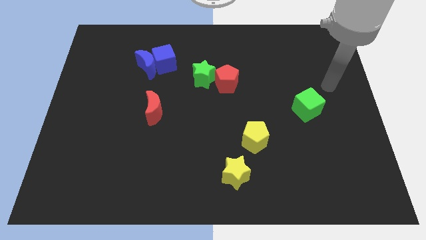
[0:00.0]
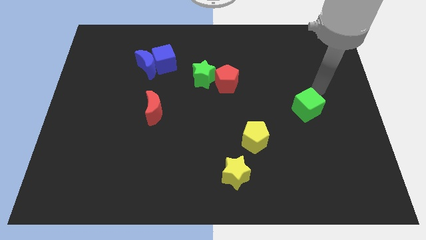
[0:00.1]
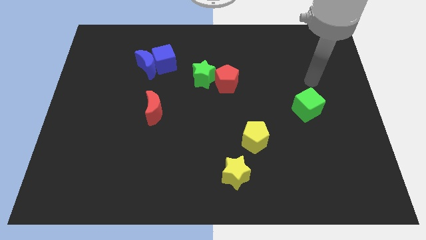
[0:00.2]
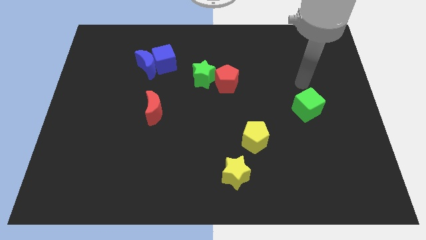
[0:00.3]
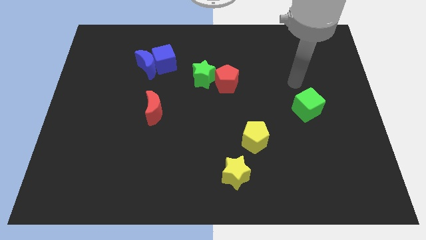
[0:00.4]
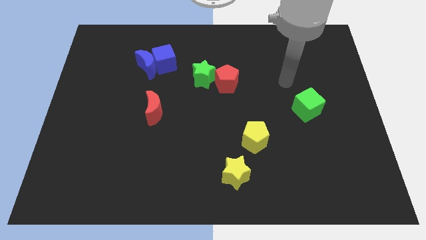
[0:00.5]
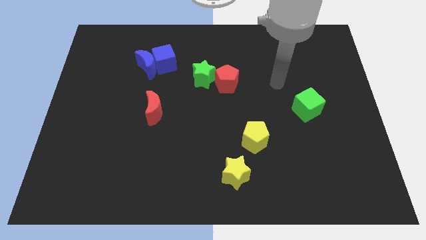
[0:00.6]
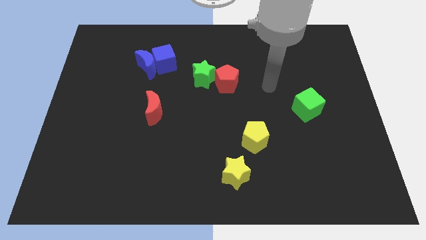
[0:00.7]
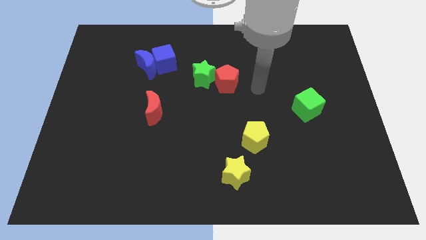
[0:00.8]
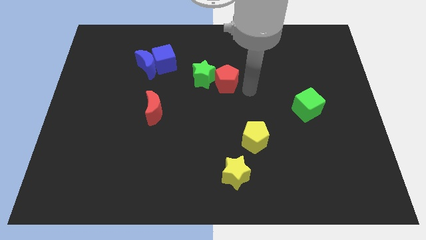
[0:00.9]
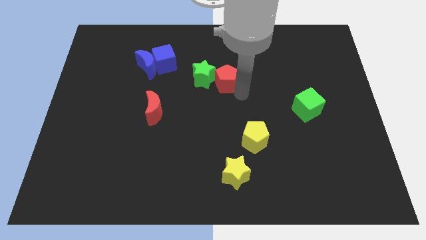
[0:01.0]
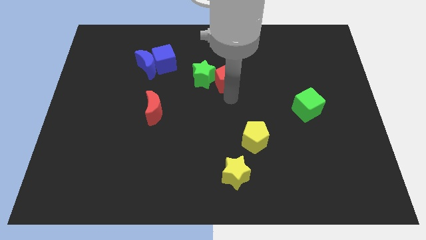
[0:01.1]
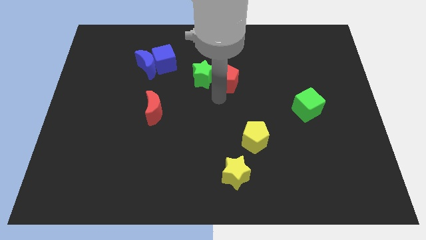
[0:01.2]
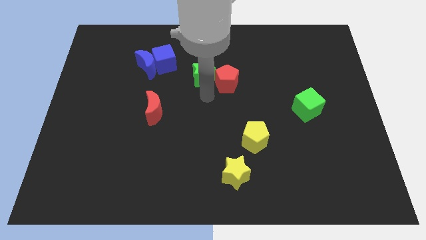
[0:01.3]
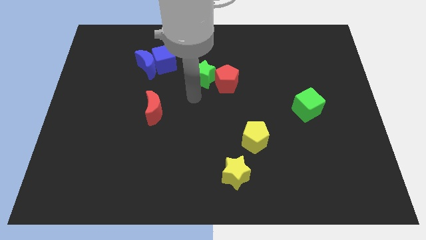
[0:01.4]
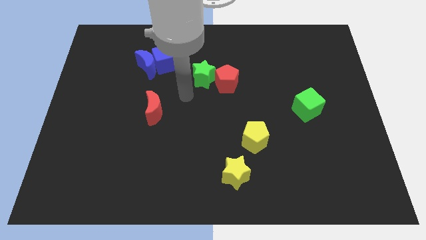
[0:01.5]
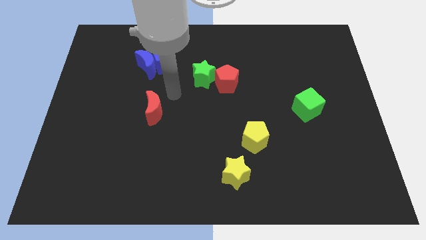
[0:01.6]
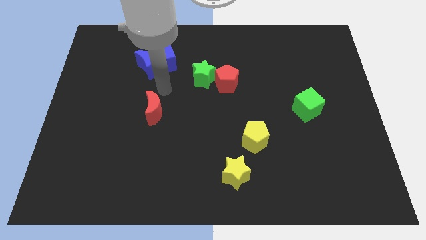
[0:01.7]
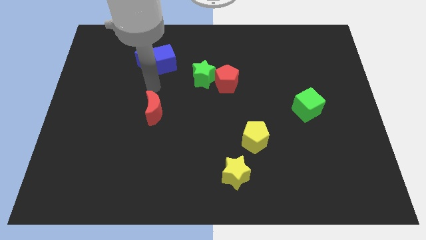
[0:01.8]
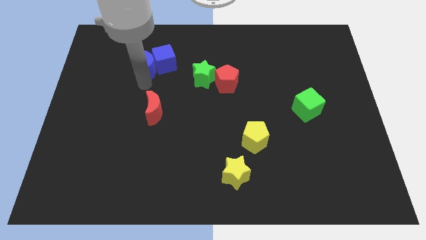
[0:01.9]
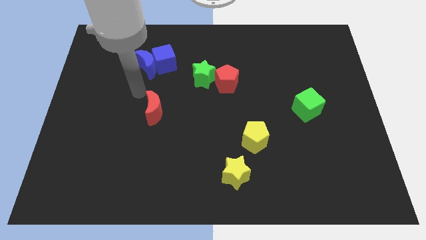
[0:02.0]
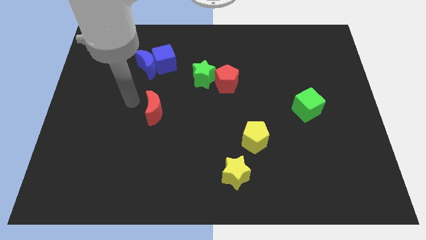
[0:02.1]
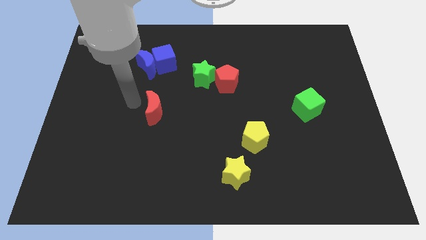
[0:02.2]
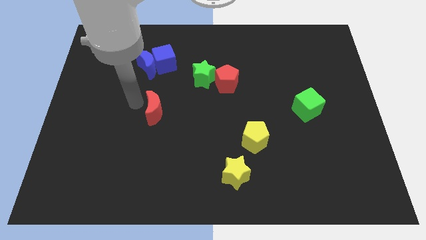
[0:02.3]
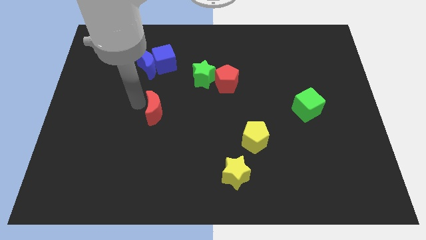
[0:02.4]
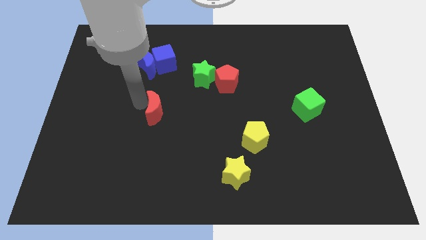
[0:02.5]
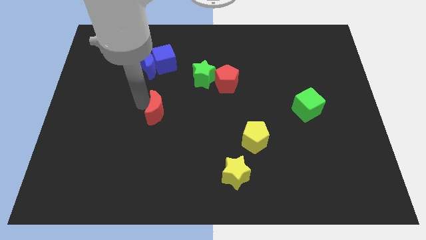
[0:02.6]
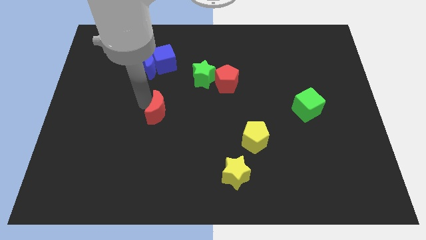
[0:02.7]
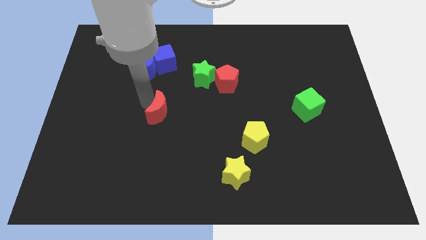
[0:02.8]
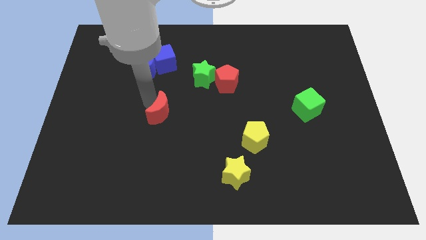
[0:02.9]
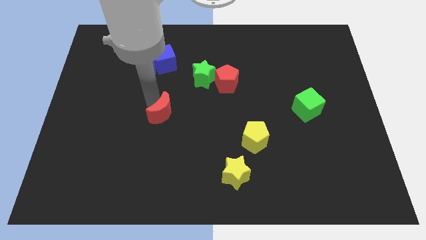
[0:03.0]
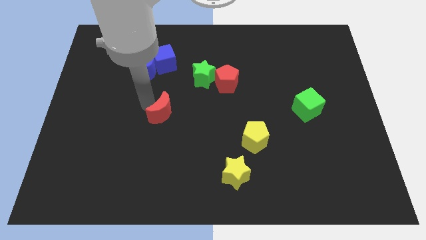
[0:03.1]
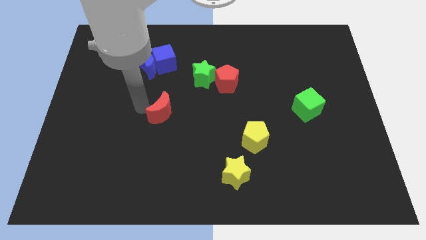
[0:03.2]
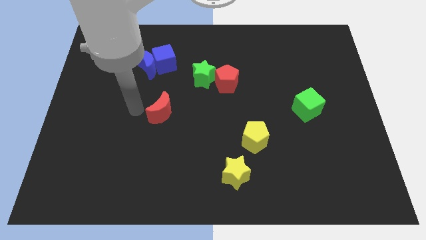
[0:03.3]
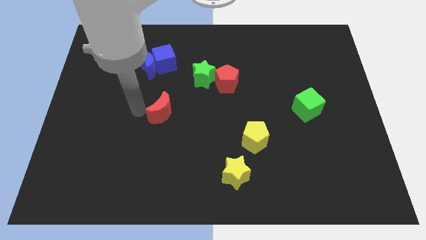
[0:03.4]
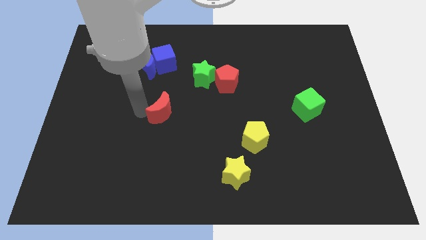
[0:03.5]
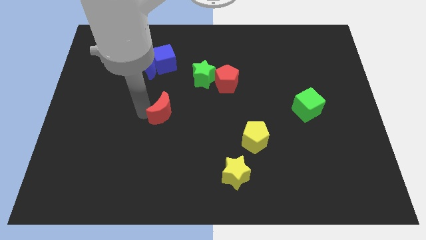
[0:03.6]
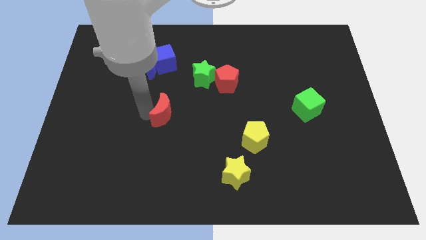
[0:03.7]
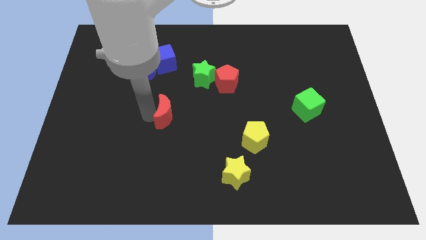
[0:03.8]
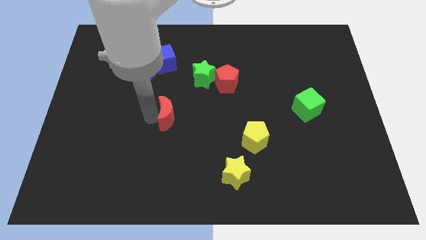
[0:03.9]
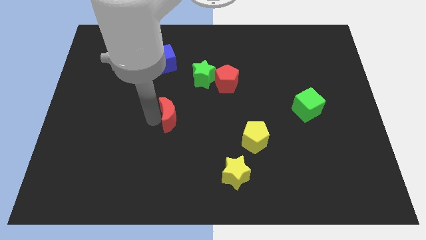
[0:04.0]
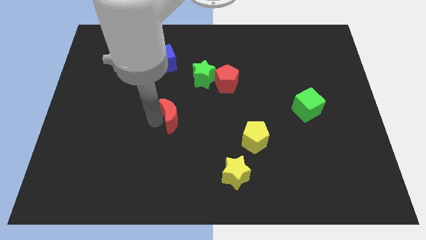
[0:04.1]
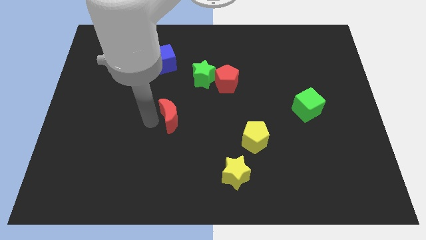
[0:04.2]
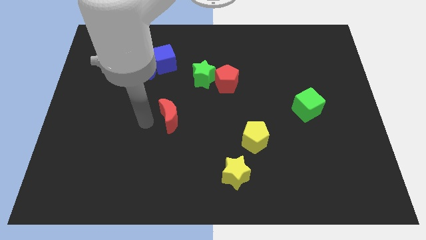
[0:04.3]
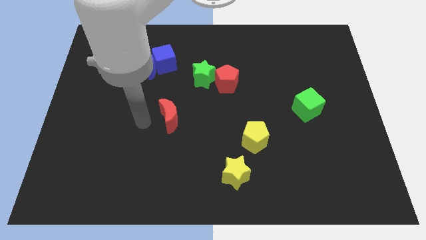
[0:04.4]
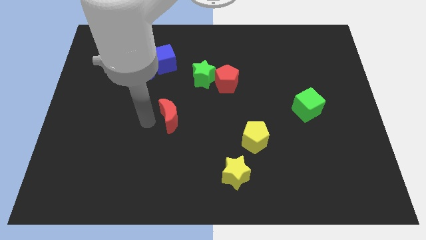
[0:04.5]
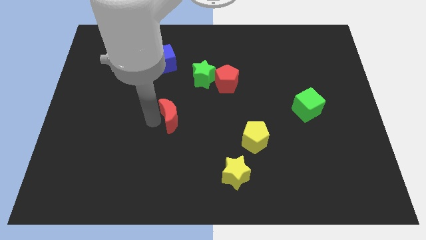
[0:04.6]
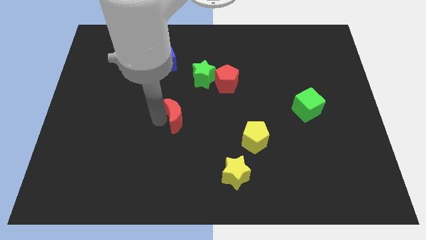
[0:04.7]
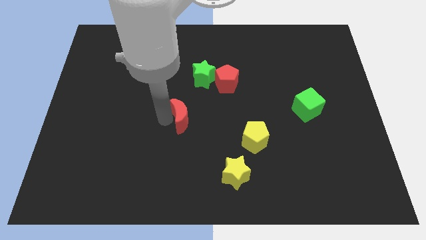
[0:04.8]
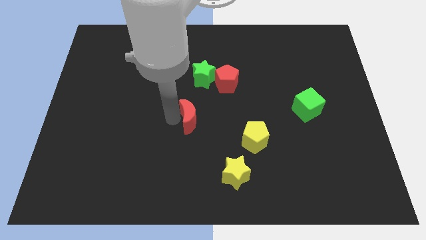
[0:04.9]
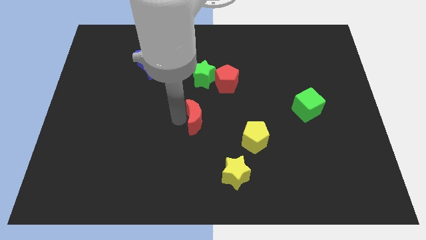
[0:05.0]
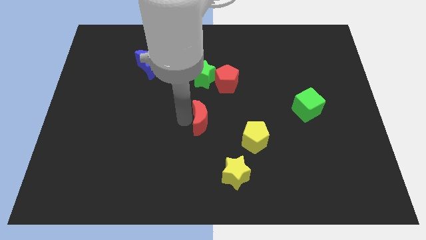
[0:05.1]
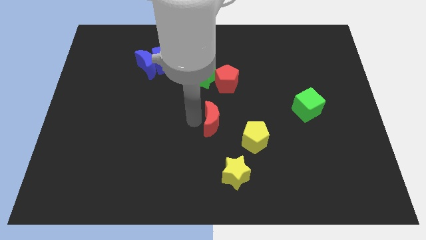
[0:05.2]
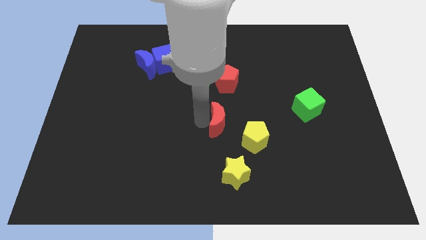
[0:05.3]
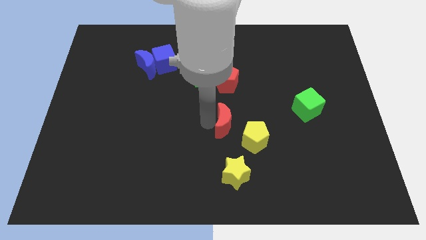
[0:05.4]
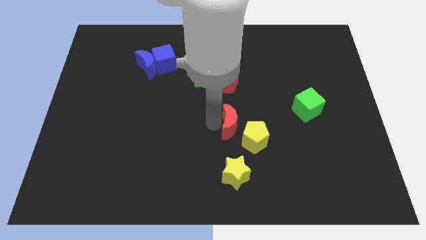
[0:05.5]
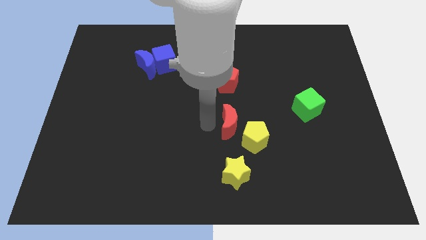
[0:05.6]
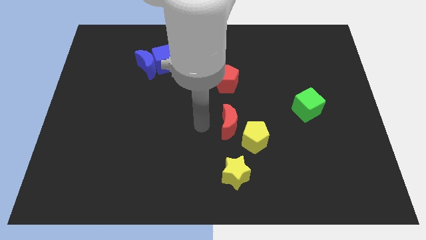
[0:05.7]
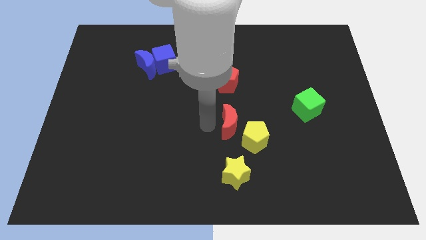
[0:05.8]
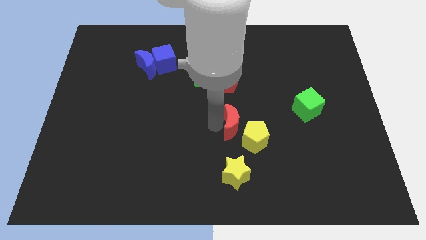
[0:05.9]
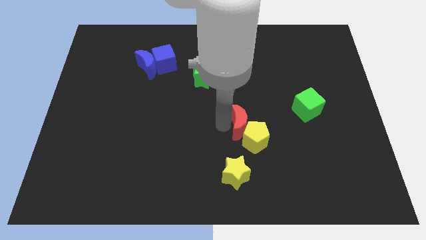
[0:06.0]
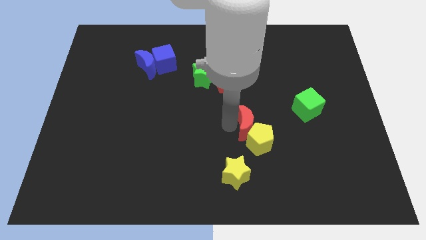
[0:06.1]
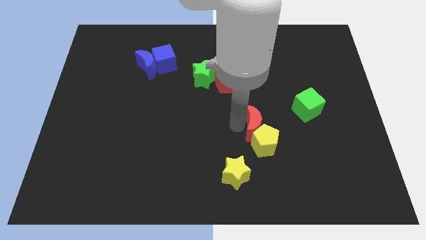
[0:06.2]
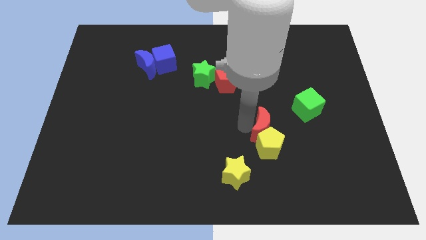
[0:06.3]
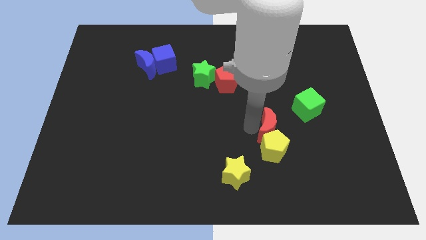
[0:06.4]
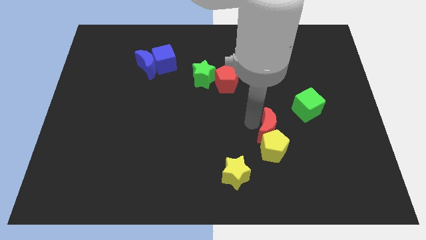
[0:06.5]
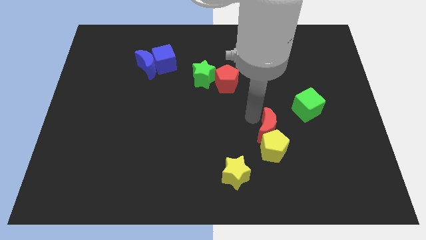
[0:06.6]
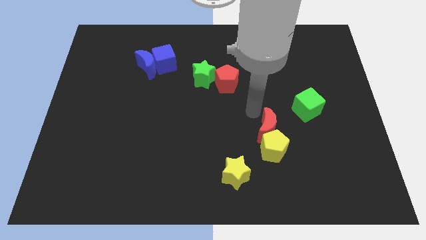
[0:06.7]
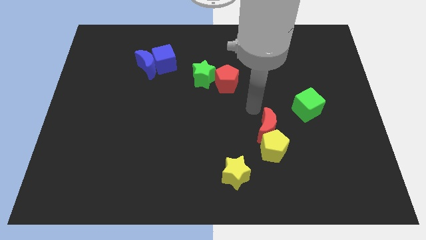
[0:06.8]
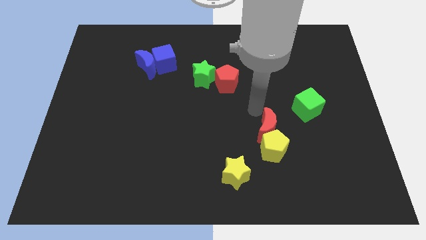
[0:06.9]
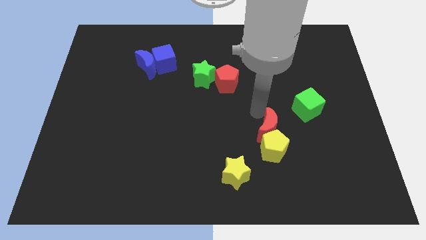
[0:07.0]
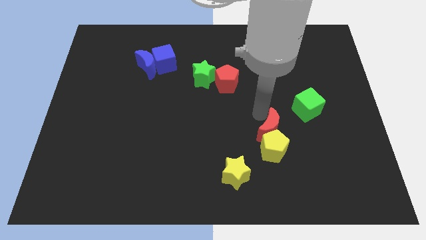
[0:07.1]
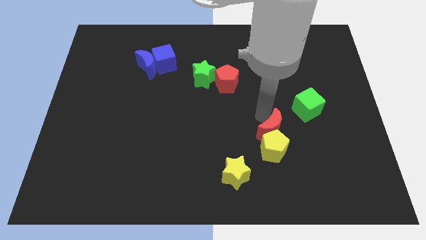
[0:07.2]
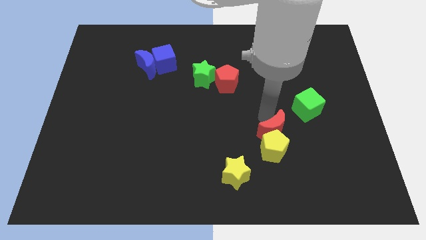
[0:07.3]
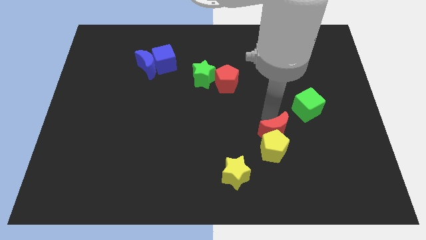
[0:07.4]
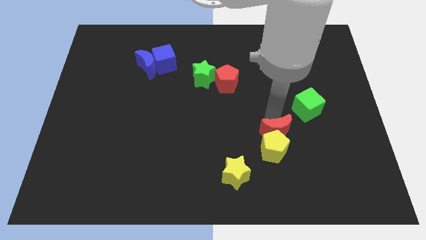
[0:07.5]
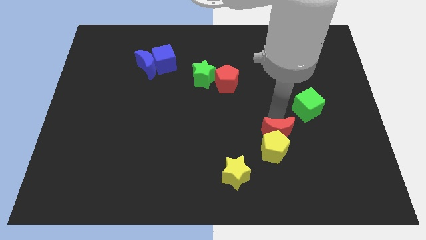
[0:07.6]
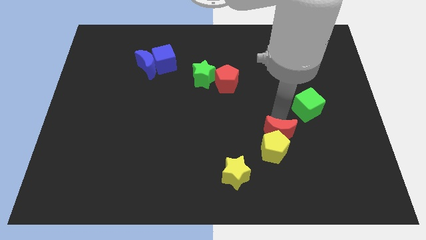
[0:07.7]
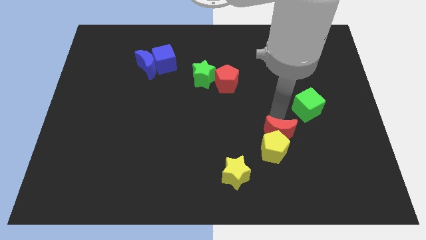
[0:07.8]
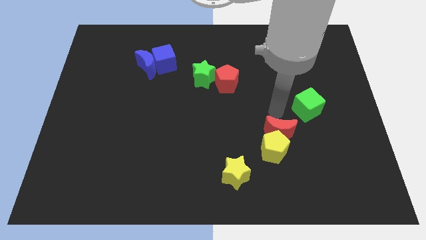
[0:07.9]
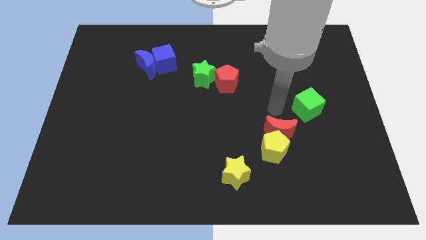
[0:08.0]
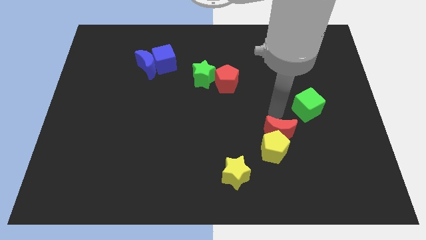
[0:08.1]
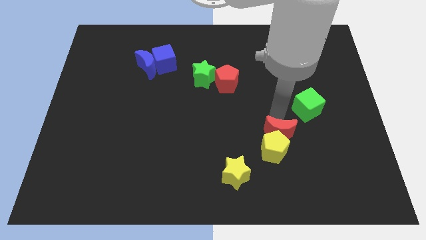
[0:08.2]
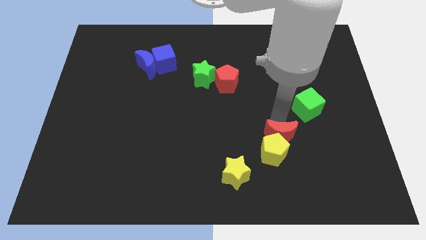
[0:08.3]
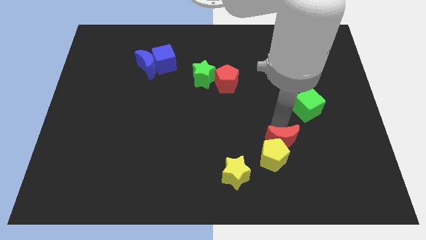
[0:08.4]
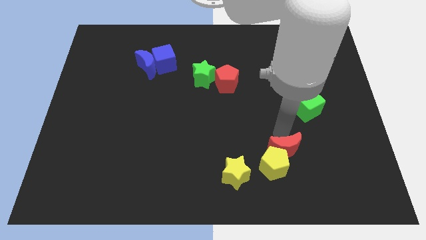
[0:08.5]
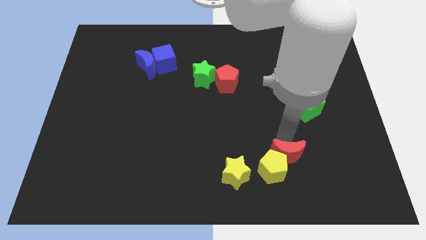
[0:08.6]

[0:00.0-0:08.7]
slide the red moon right of the yellow star
